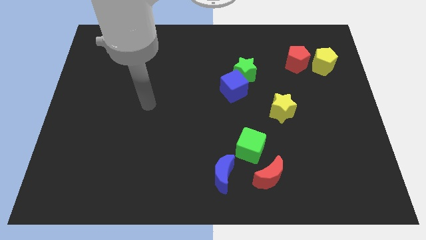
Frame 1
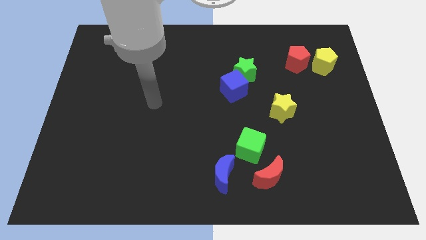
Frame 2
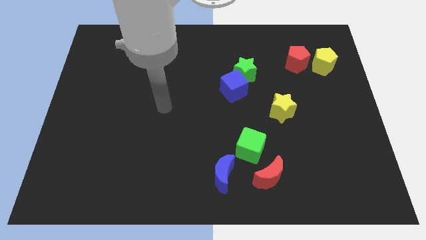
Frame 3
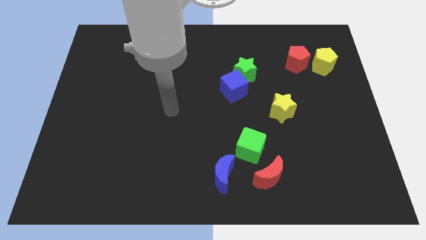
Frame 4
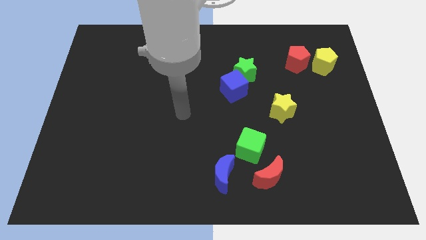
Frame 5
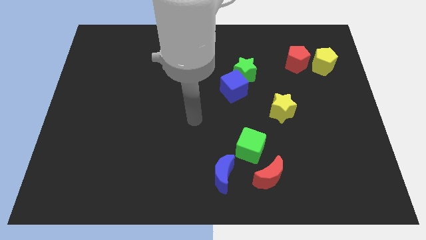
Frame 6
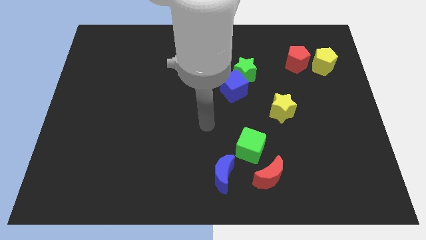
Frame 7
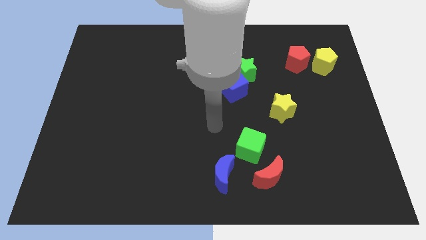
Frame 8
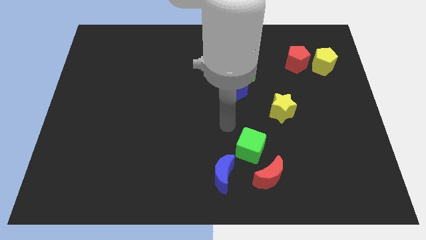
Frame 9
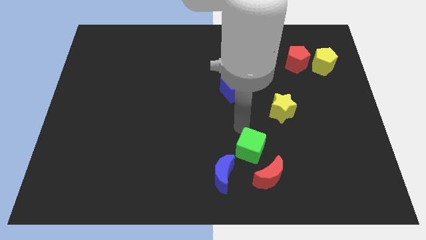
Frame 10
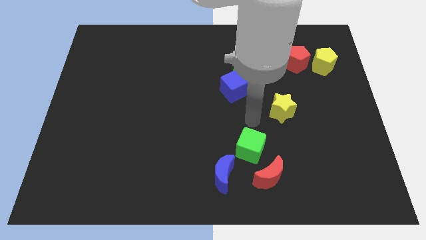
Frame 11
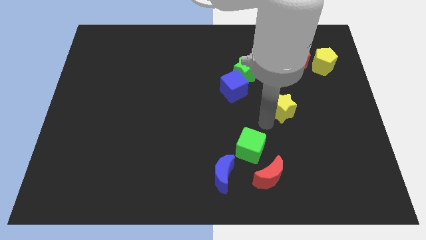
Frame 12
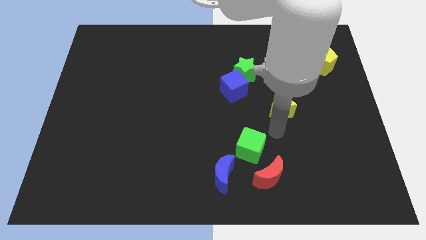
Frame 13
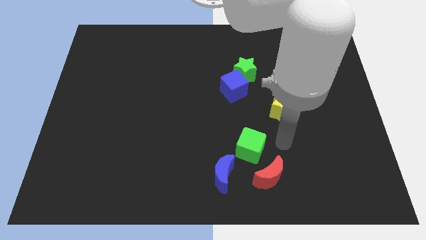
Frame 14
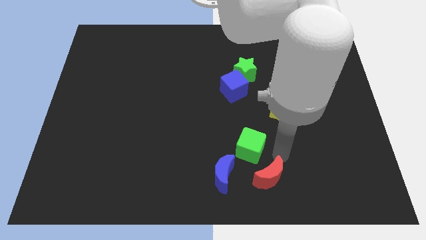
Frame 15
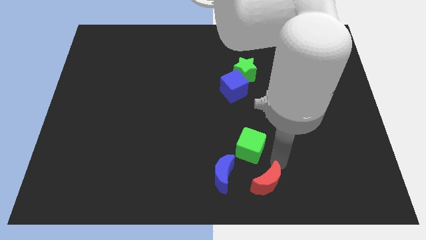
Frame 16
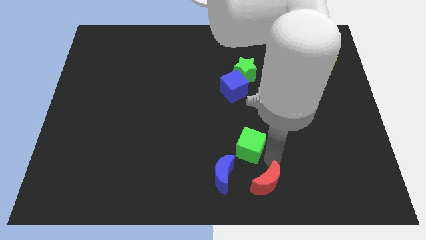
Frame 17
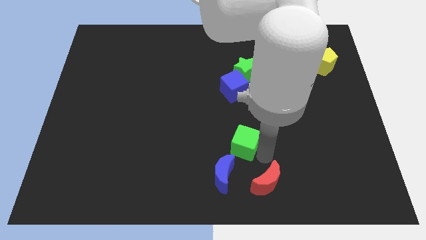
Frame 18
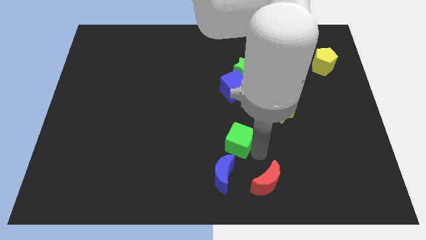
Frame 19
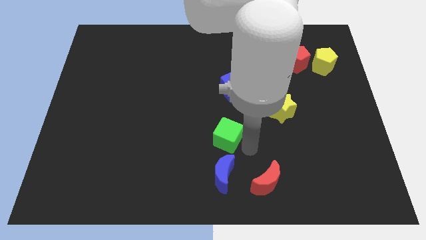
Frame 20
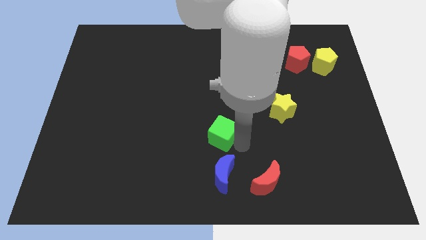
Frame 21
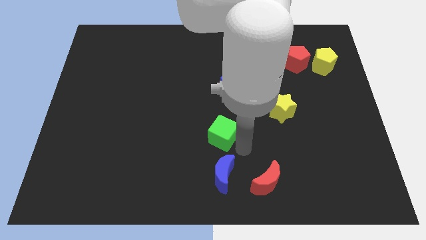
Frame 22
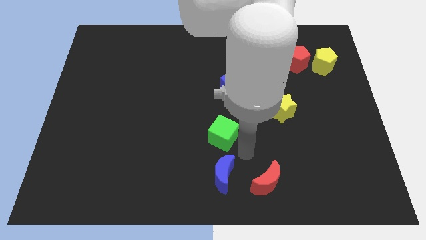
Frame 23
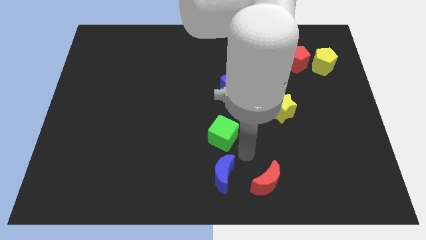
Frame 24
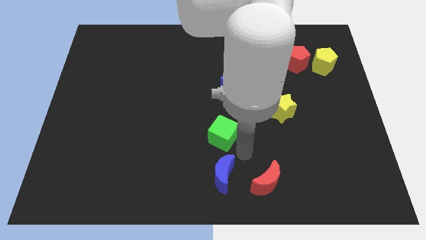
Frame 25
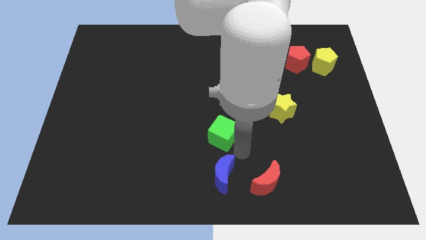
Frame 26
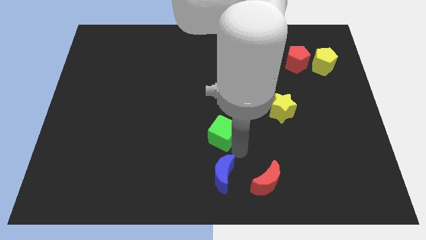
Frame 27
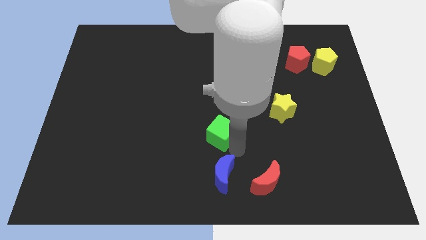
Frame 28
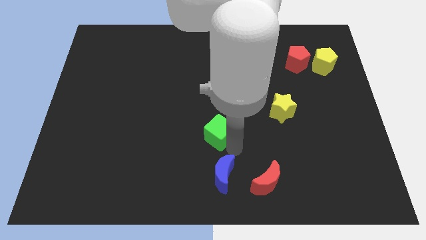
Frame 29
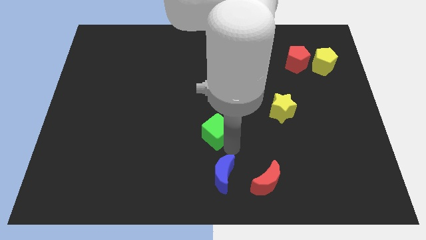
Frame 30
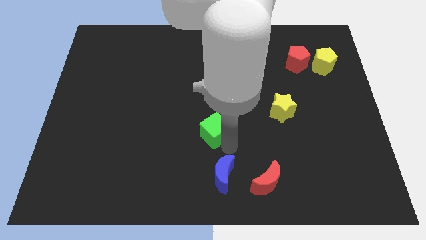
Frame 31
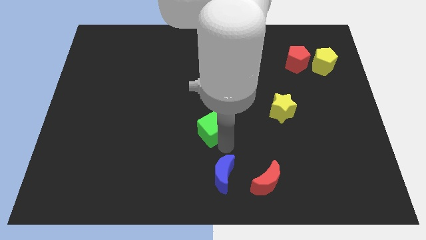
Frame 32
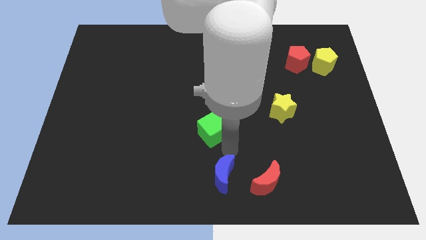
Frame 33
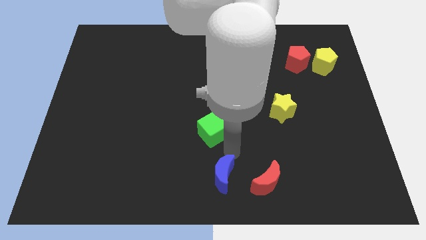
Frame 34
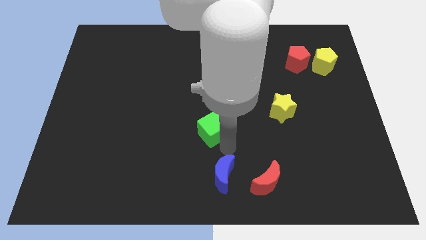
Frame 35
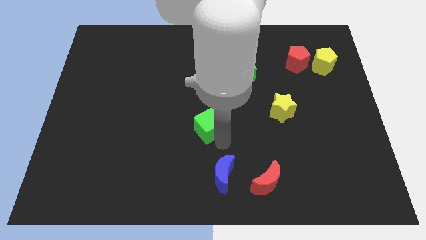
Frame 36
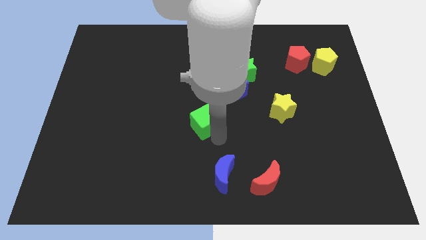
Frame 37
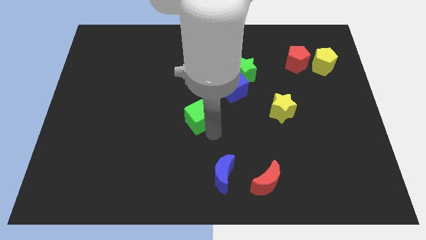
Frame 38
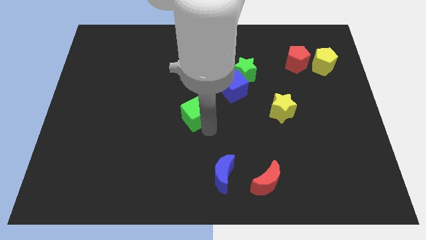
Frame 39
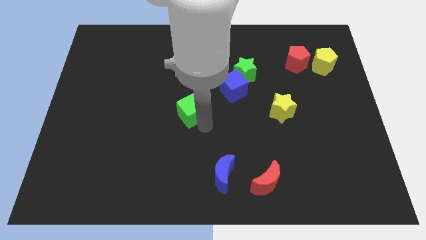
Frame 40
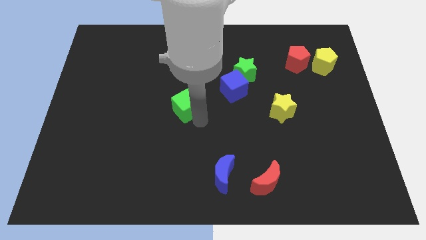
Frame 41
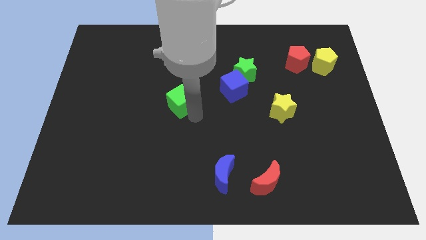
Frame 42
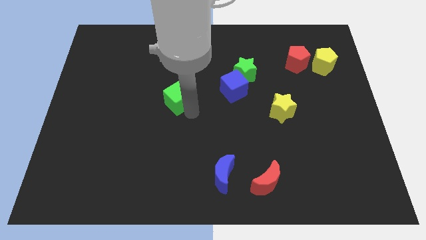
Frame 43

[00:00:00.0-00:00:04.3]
move the green cube up and left

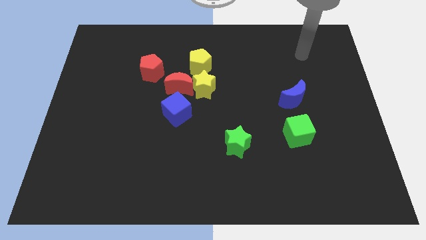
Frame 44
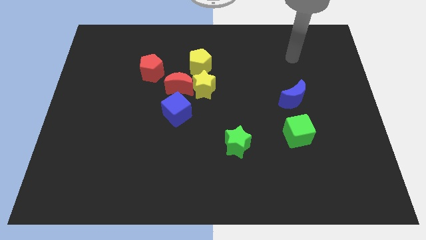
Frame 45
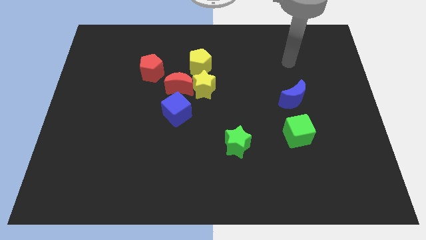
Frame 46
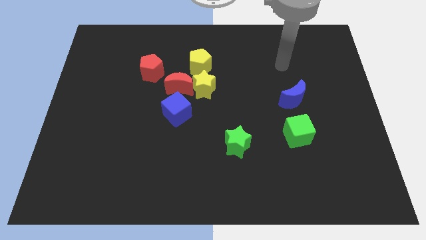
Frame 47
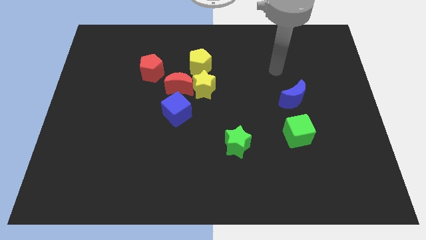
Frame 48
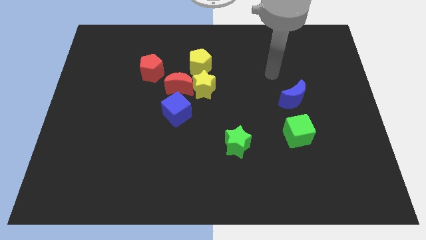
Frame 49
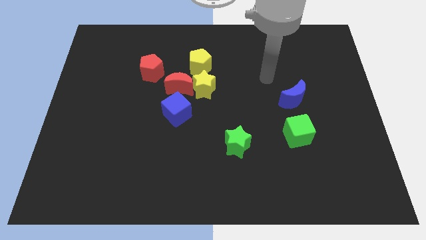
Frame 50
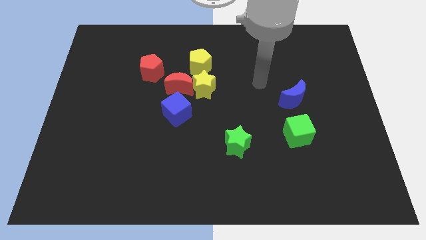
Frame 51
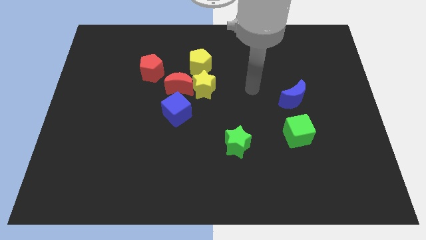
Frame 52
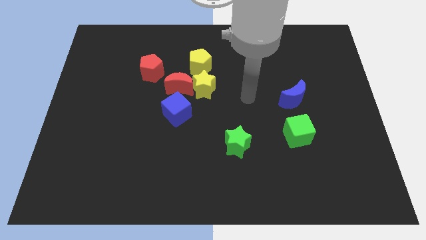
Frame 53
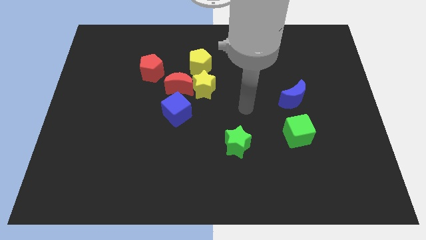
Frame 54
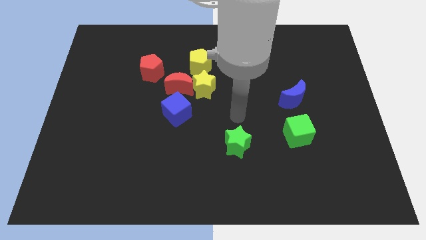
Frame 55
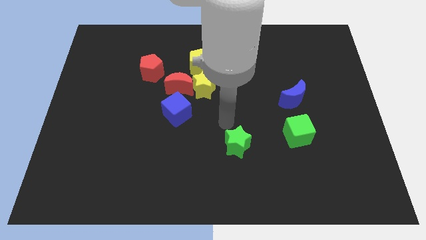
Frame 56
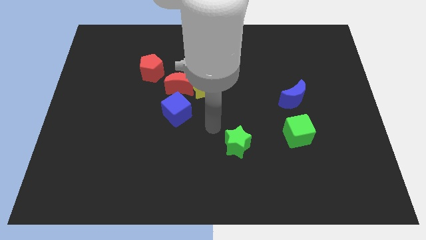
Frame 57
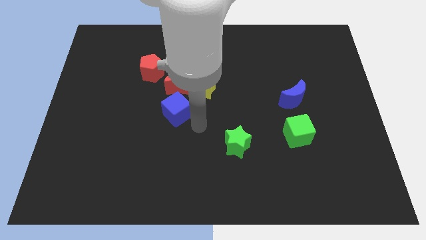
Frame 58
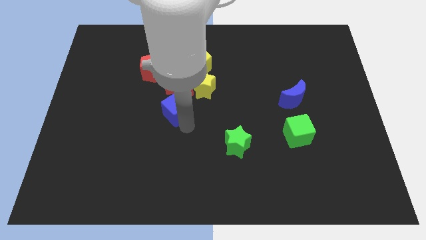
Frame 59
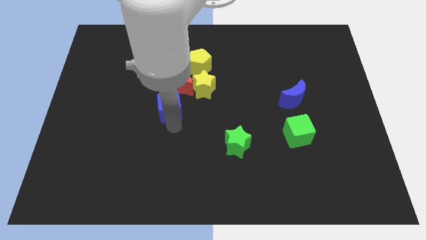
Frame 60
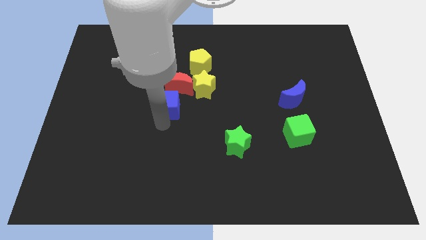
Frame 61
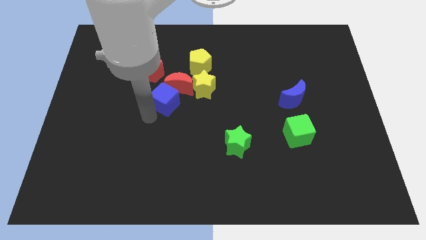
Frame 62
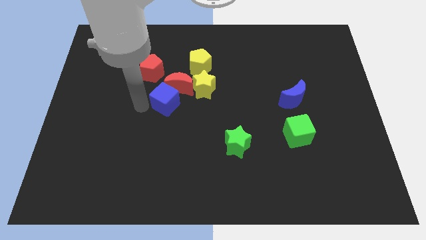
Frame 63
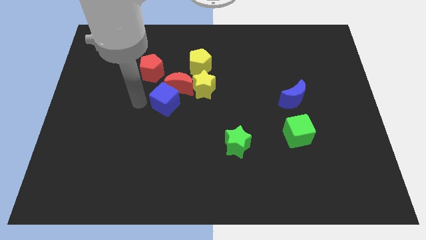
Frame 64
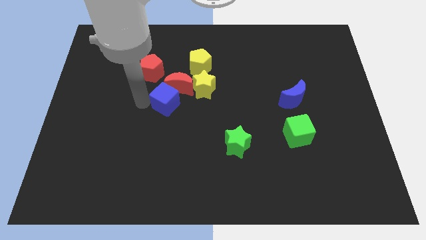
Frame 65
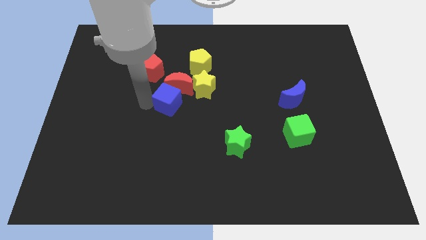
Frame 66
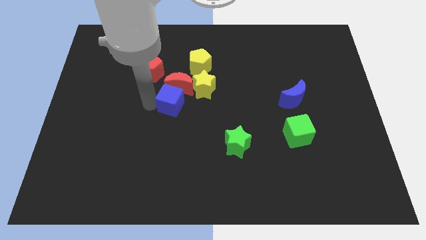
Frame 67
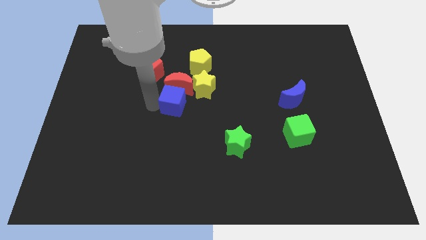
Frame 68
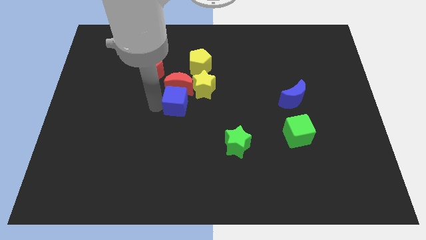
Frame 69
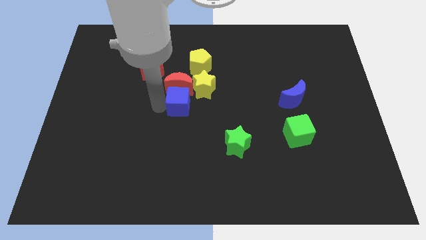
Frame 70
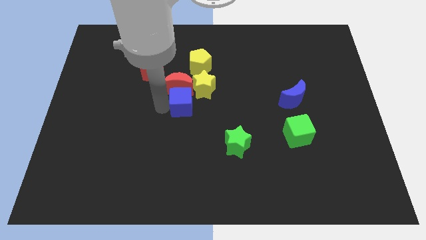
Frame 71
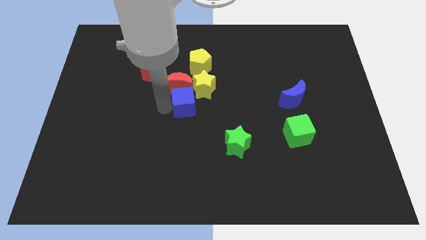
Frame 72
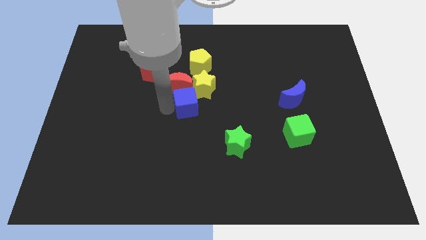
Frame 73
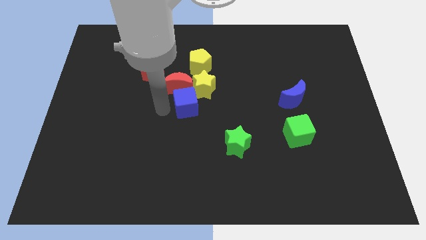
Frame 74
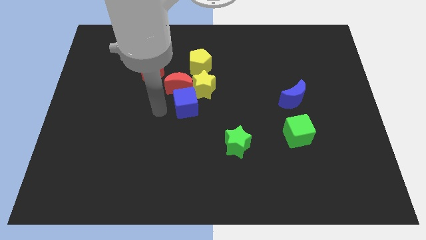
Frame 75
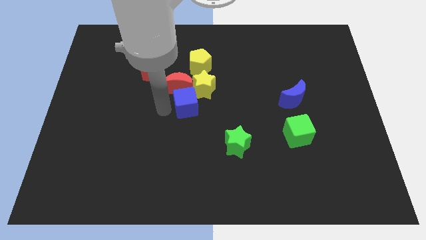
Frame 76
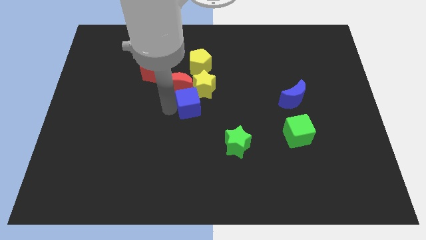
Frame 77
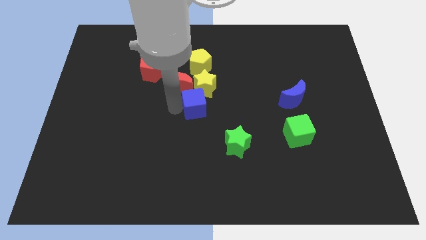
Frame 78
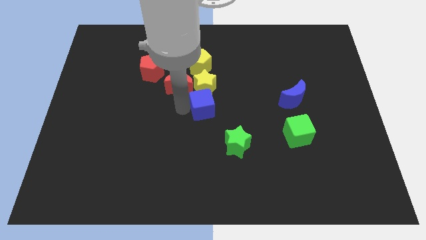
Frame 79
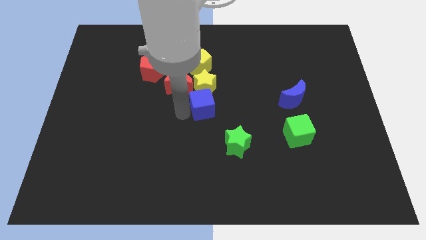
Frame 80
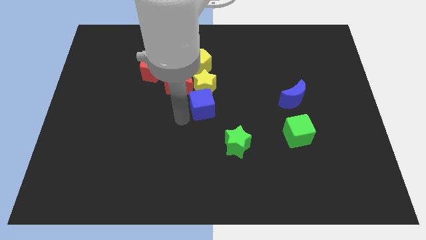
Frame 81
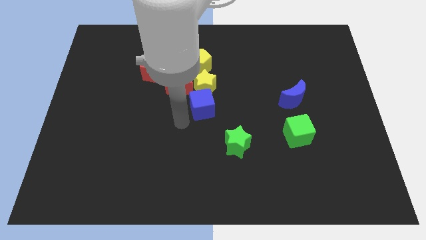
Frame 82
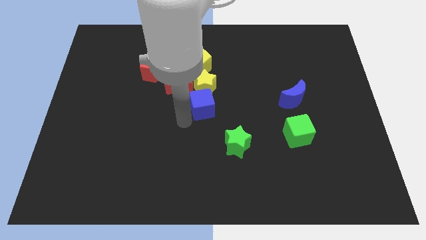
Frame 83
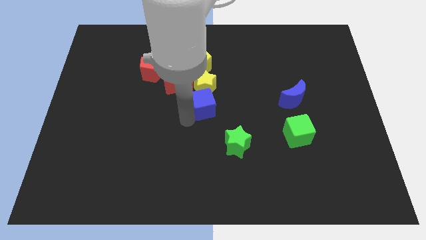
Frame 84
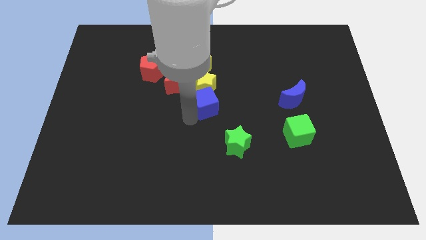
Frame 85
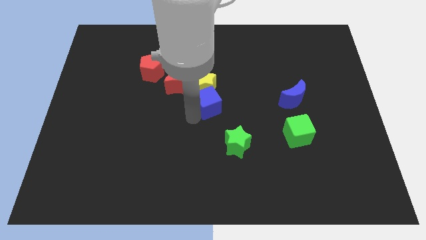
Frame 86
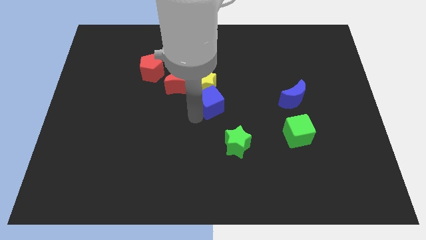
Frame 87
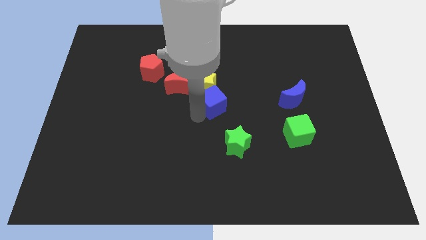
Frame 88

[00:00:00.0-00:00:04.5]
push the blue cube a bit up and then right
